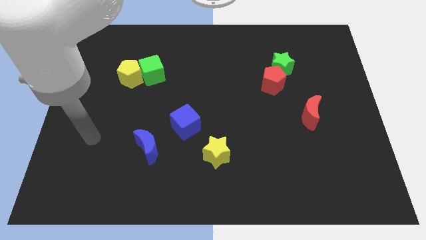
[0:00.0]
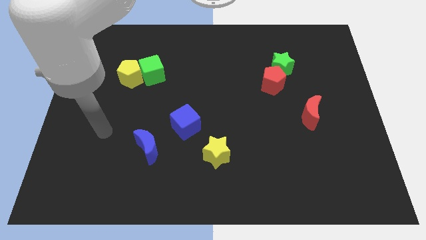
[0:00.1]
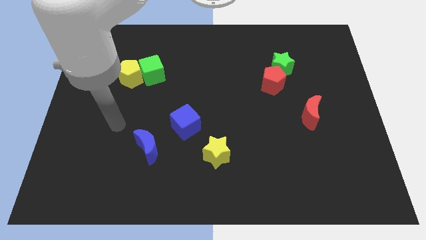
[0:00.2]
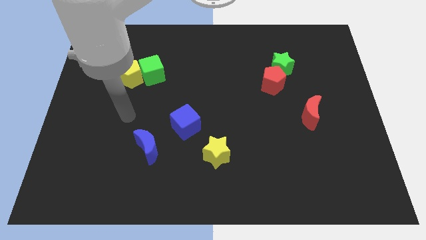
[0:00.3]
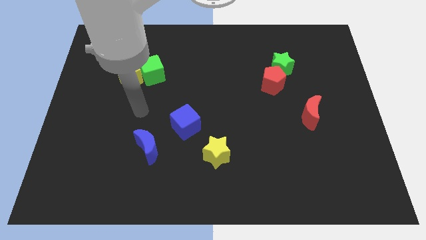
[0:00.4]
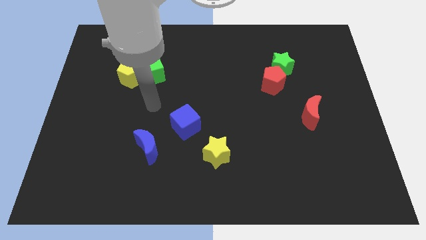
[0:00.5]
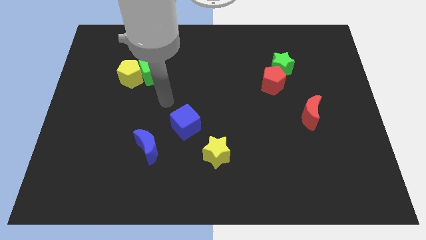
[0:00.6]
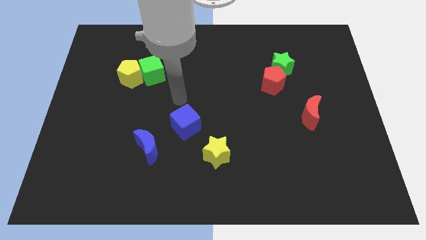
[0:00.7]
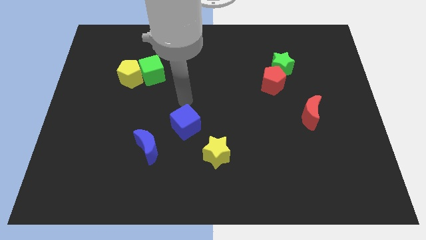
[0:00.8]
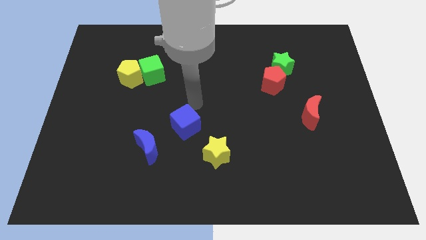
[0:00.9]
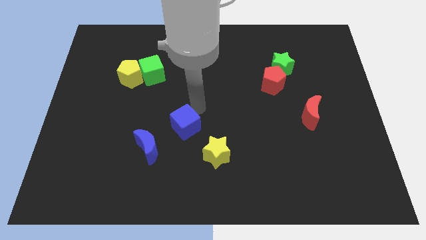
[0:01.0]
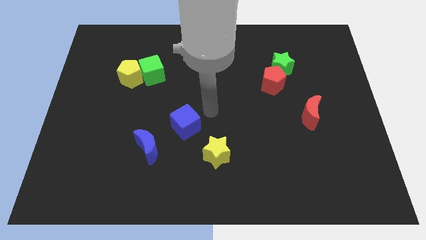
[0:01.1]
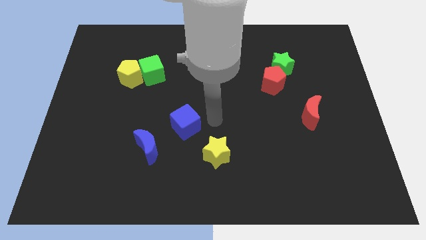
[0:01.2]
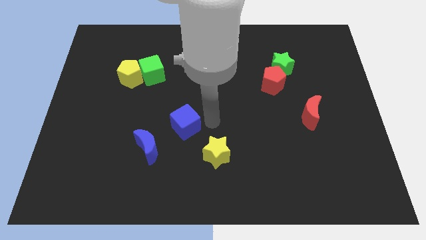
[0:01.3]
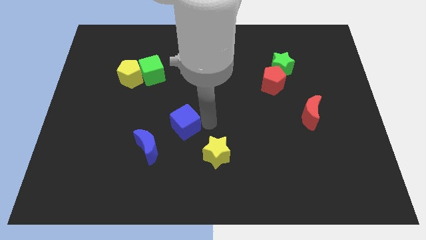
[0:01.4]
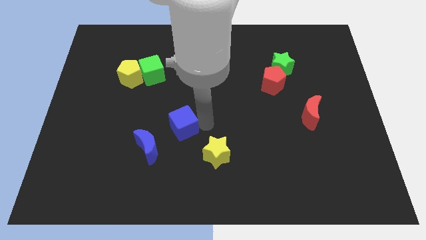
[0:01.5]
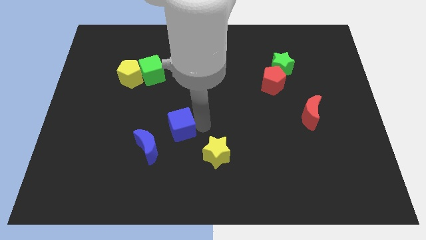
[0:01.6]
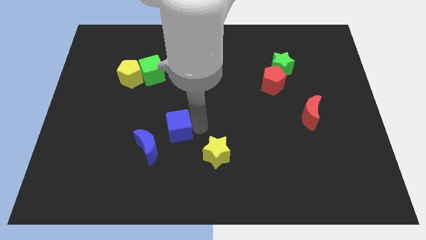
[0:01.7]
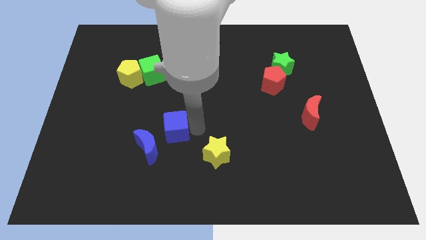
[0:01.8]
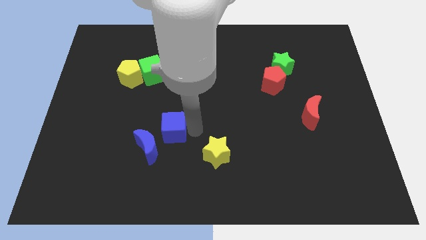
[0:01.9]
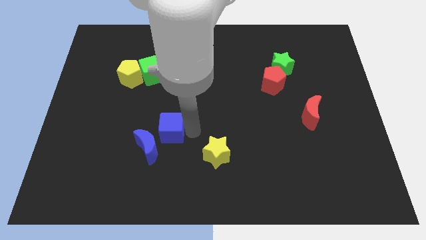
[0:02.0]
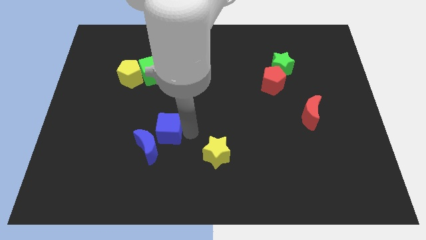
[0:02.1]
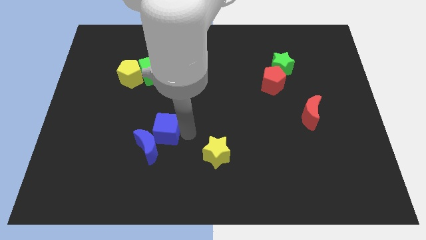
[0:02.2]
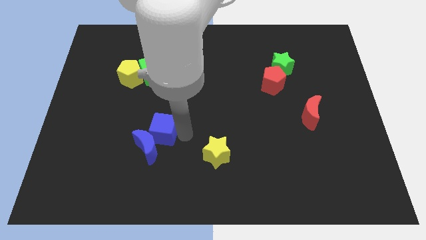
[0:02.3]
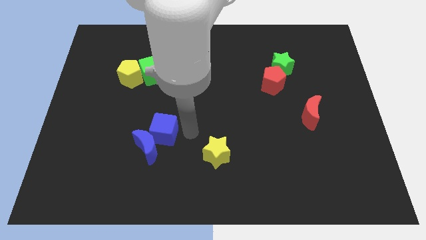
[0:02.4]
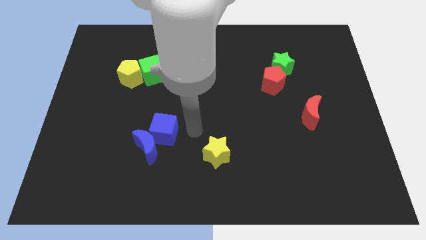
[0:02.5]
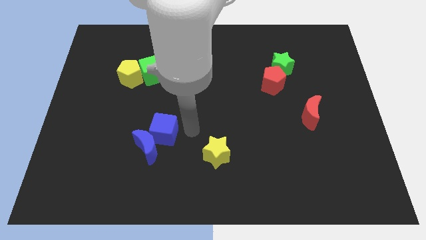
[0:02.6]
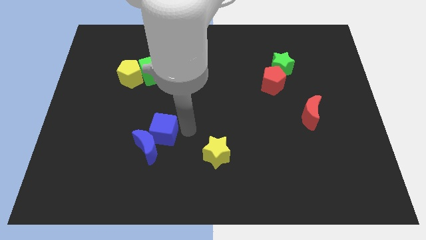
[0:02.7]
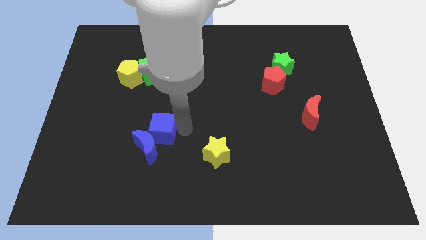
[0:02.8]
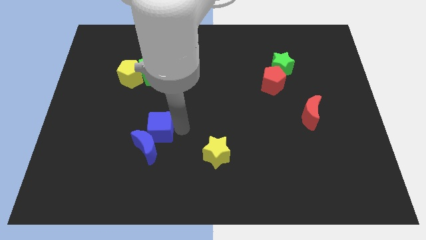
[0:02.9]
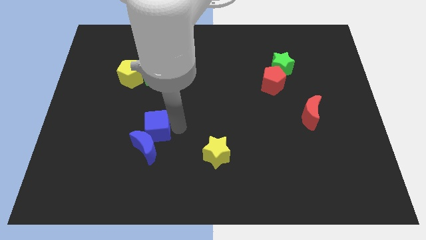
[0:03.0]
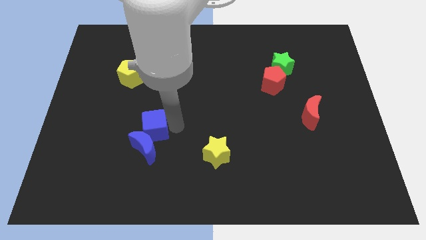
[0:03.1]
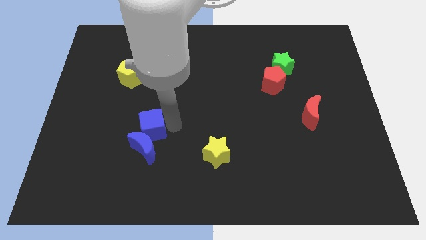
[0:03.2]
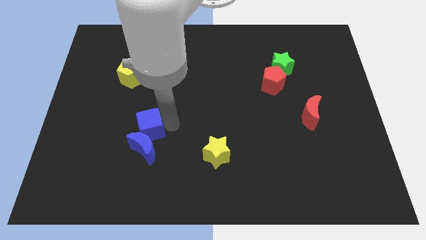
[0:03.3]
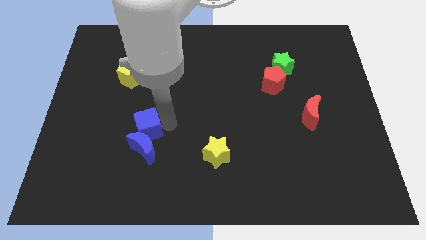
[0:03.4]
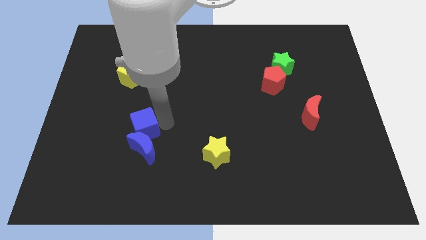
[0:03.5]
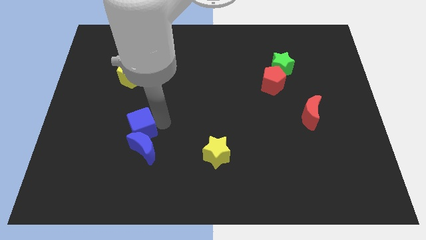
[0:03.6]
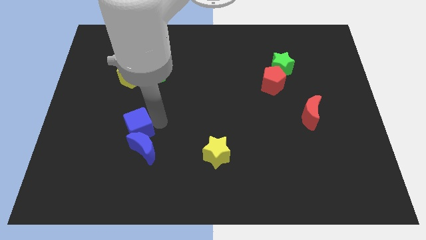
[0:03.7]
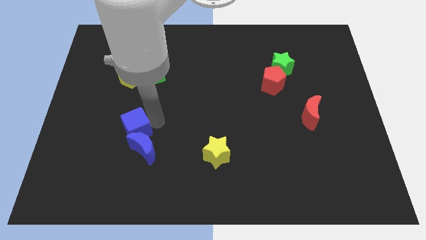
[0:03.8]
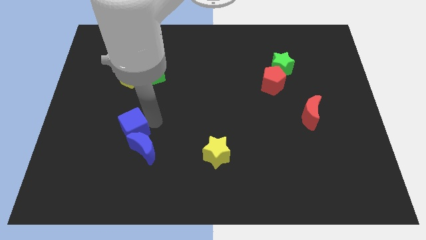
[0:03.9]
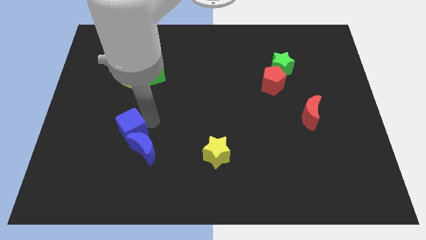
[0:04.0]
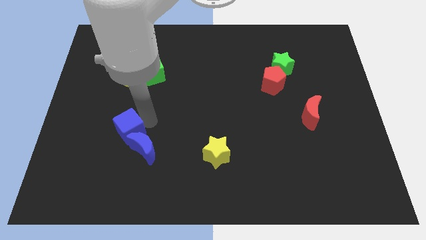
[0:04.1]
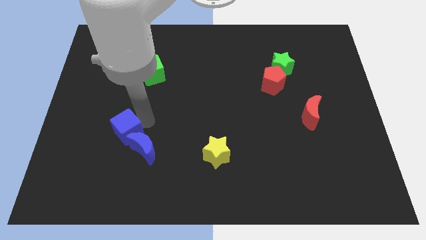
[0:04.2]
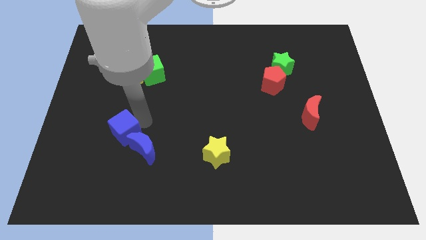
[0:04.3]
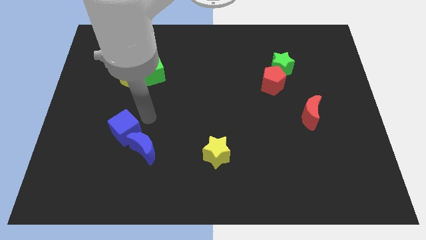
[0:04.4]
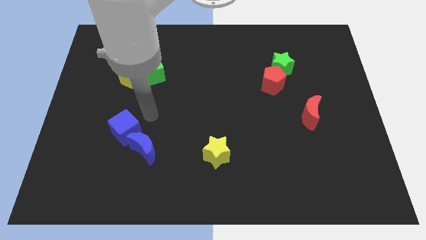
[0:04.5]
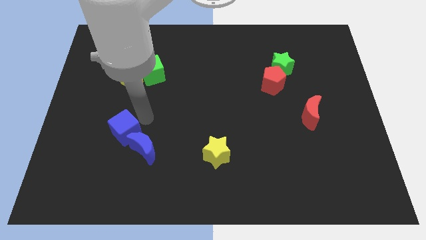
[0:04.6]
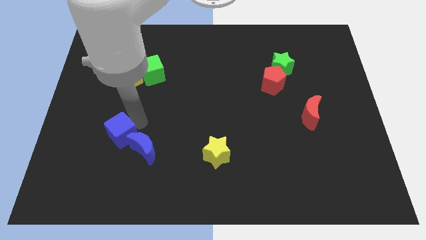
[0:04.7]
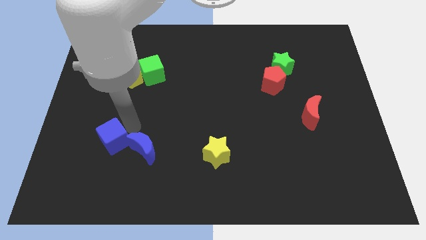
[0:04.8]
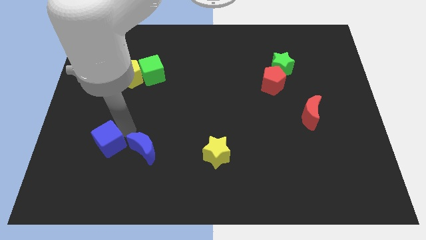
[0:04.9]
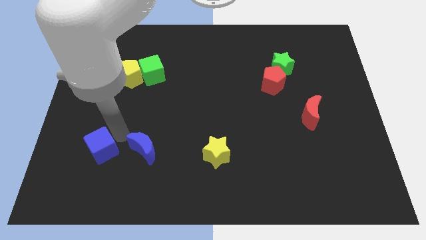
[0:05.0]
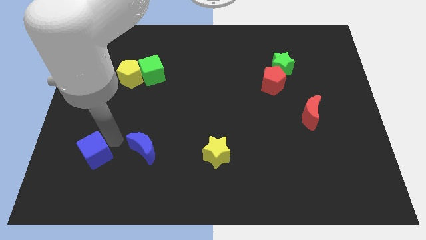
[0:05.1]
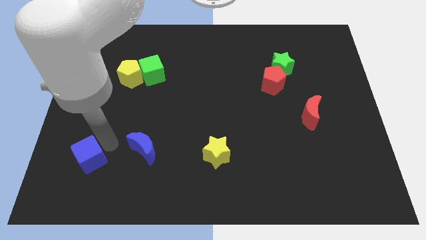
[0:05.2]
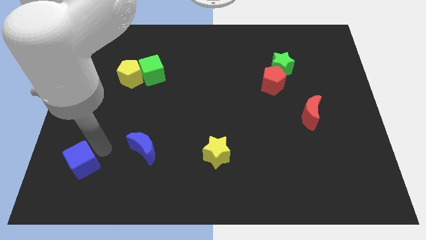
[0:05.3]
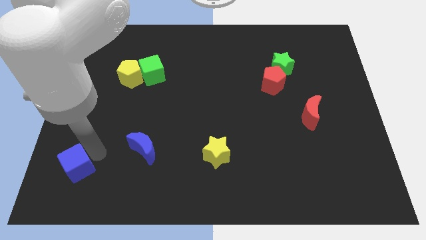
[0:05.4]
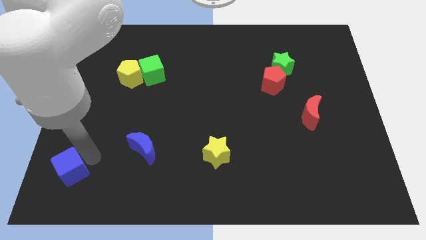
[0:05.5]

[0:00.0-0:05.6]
put the blue cube to the bottom left
